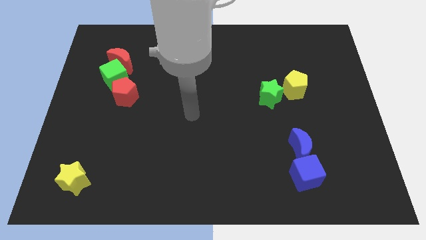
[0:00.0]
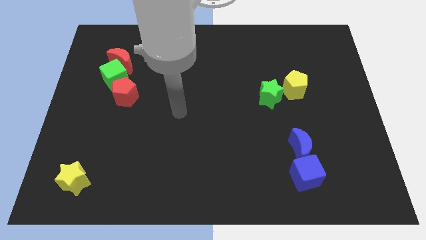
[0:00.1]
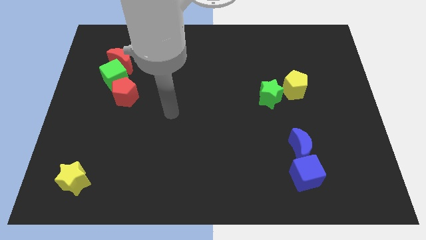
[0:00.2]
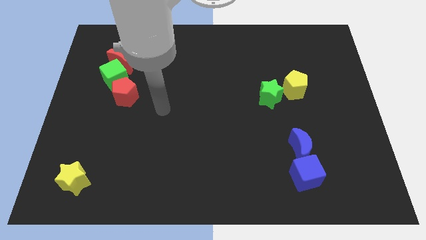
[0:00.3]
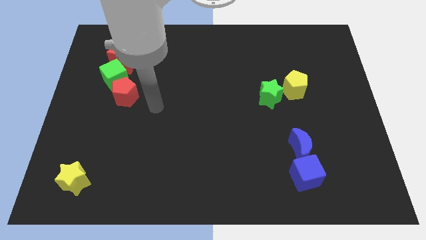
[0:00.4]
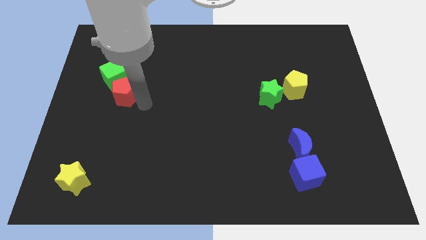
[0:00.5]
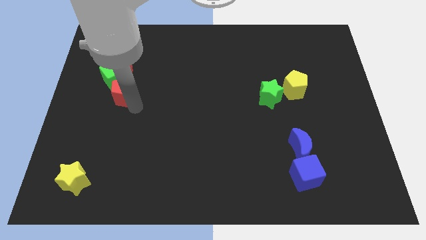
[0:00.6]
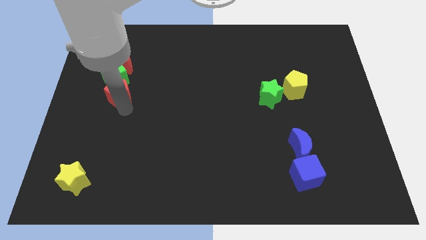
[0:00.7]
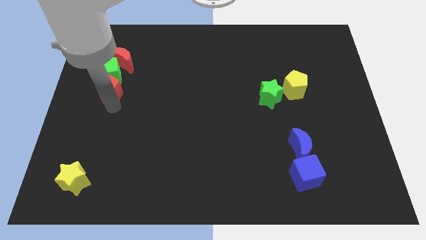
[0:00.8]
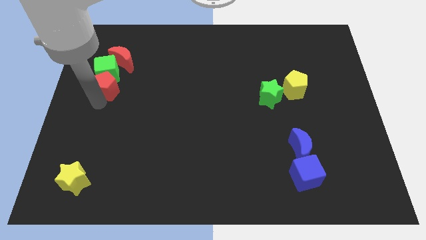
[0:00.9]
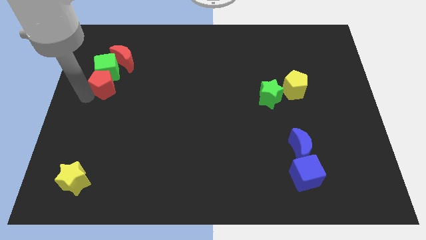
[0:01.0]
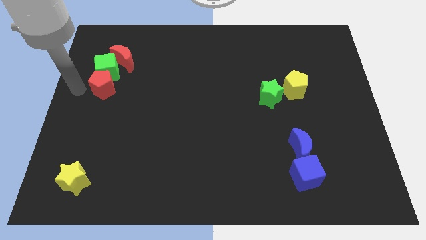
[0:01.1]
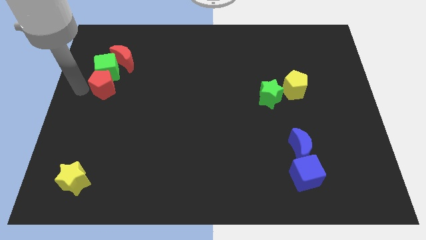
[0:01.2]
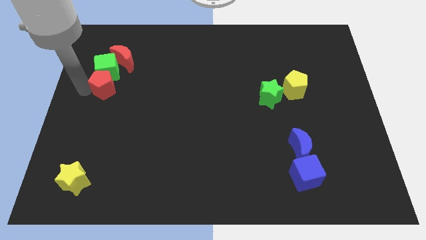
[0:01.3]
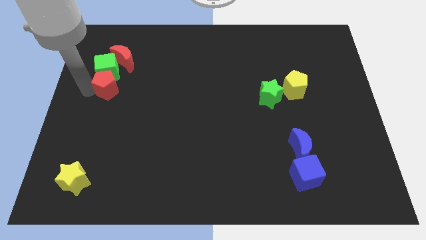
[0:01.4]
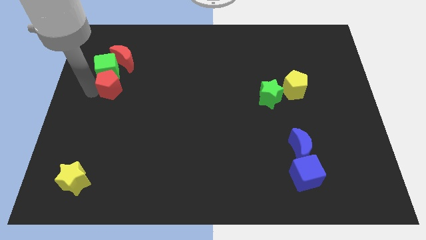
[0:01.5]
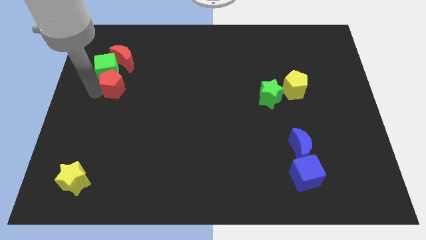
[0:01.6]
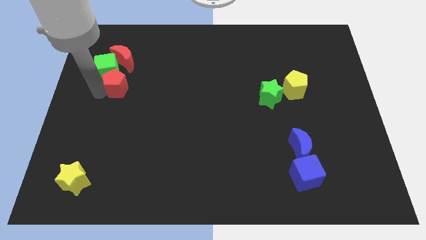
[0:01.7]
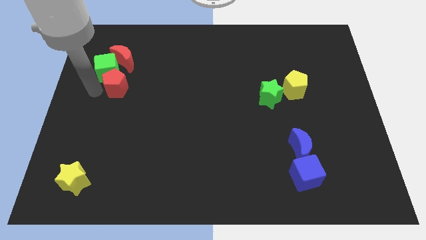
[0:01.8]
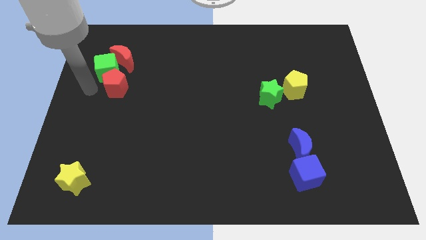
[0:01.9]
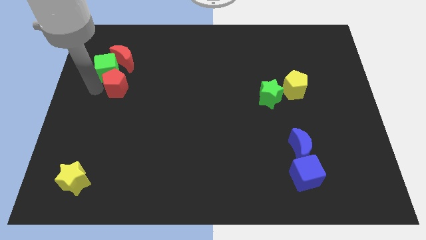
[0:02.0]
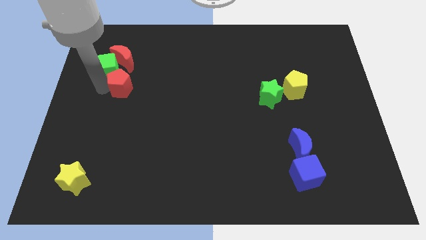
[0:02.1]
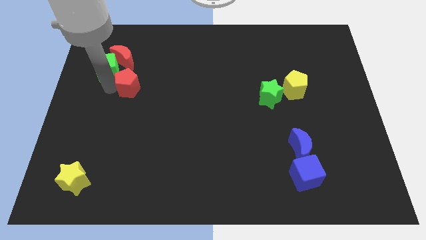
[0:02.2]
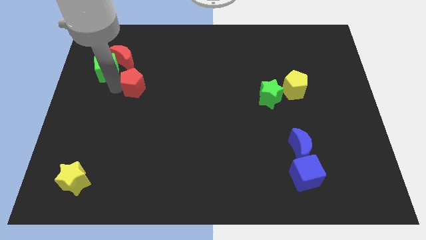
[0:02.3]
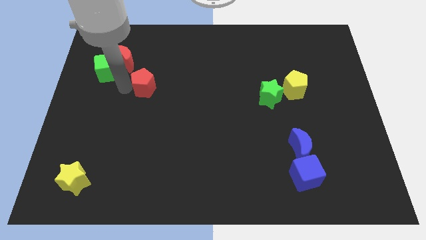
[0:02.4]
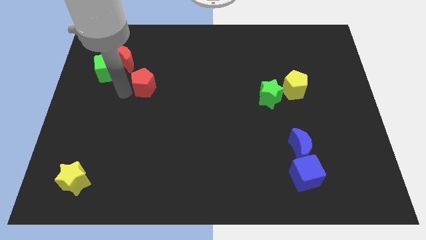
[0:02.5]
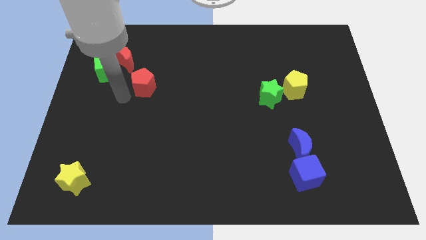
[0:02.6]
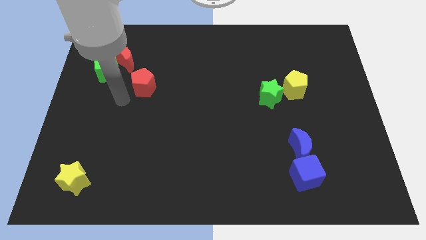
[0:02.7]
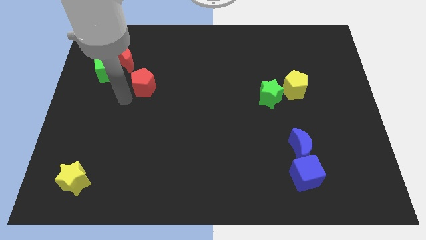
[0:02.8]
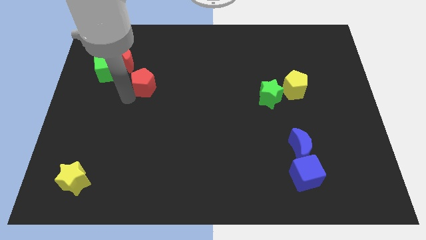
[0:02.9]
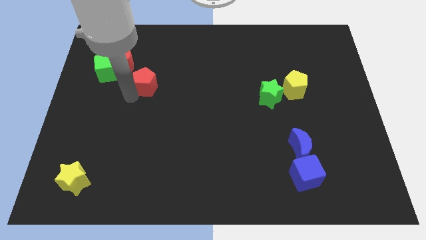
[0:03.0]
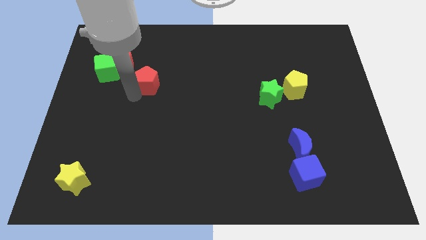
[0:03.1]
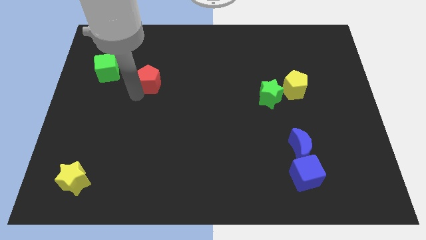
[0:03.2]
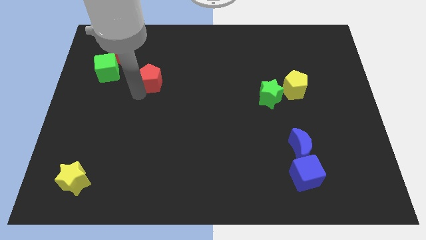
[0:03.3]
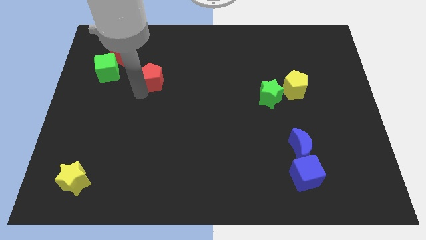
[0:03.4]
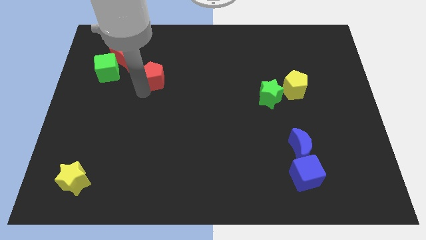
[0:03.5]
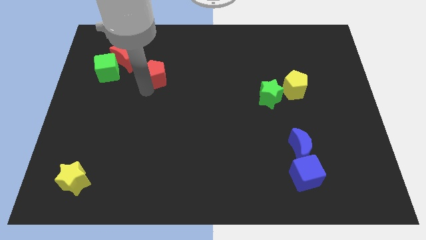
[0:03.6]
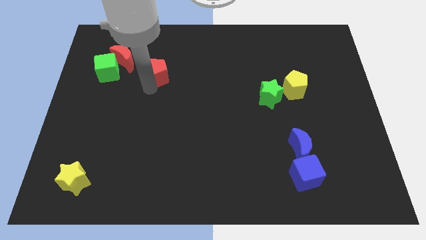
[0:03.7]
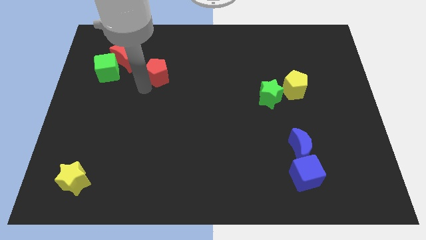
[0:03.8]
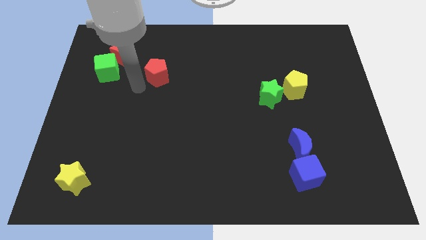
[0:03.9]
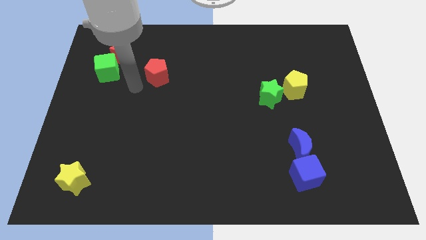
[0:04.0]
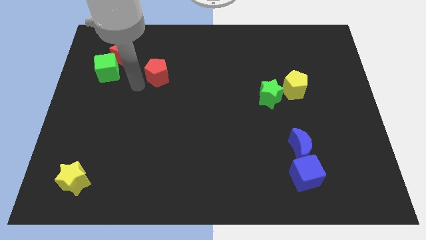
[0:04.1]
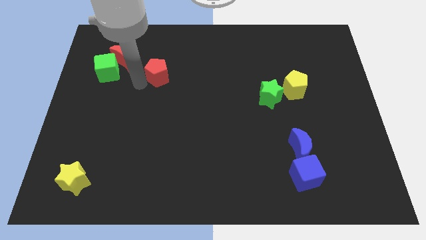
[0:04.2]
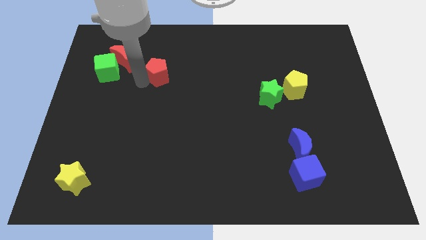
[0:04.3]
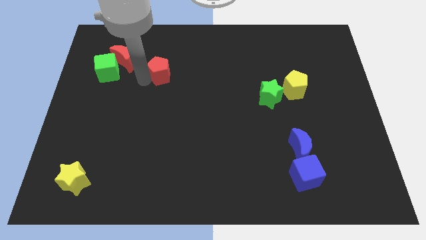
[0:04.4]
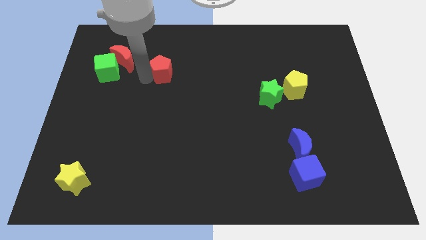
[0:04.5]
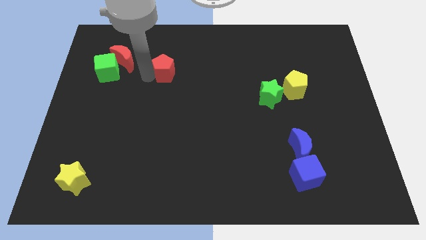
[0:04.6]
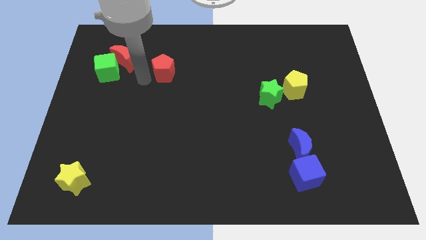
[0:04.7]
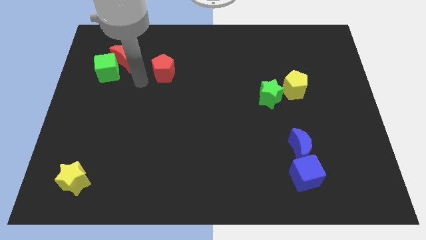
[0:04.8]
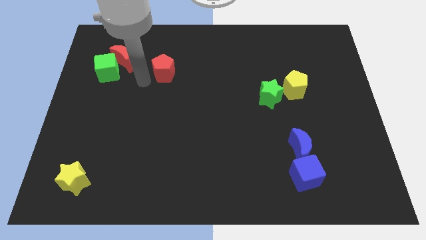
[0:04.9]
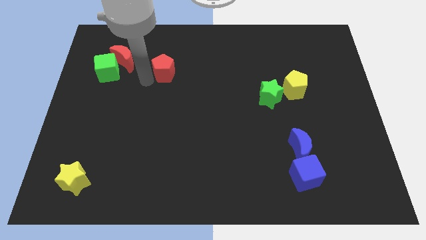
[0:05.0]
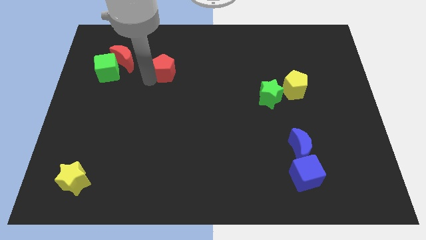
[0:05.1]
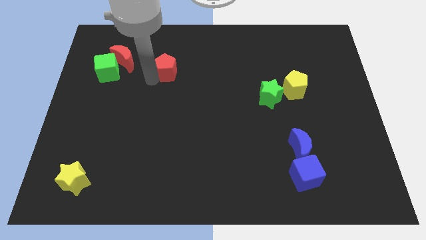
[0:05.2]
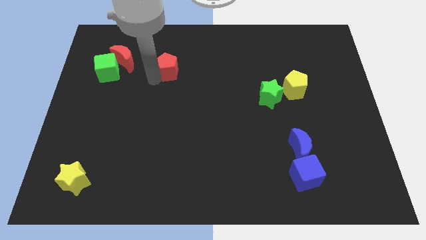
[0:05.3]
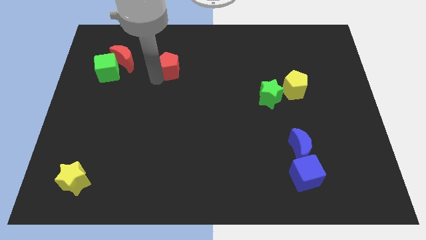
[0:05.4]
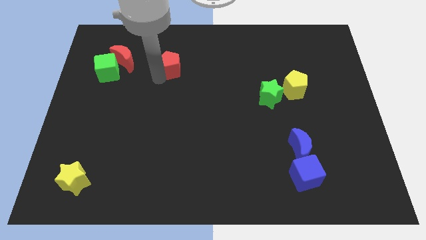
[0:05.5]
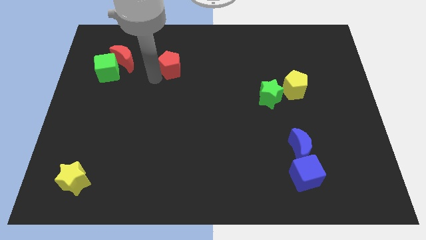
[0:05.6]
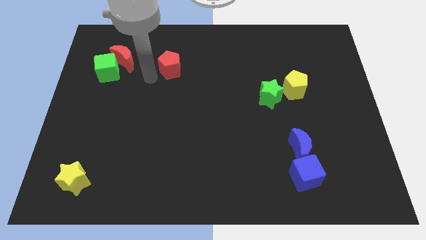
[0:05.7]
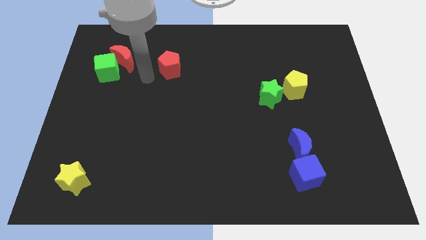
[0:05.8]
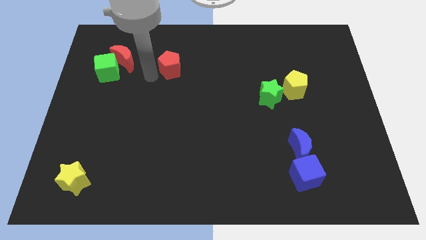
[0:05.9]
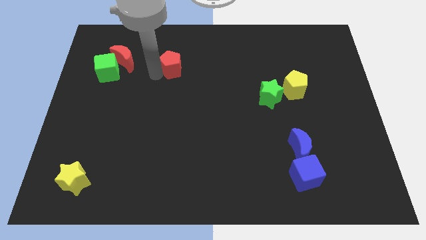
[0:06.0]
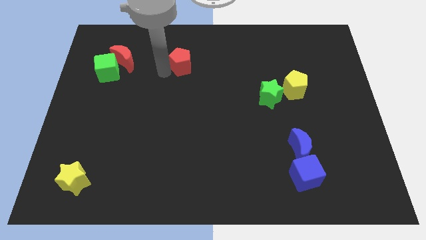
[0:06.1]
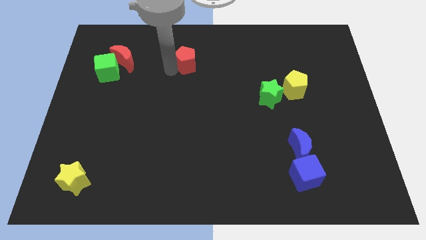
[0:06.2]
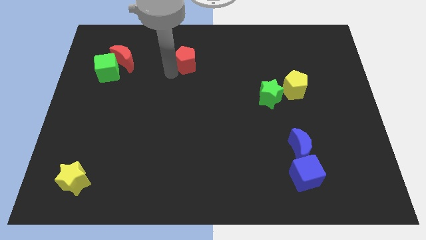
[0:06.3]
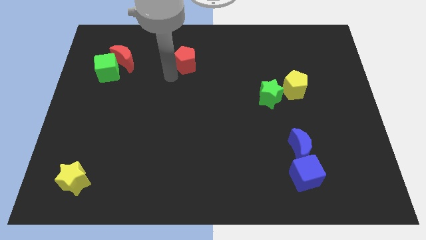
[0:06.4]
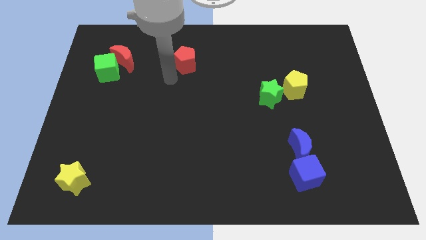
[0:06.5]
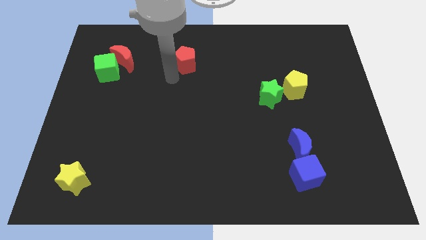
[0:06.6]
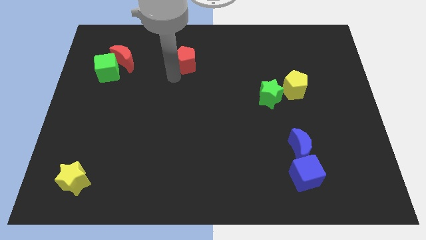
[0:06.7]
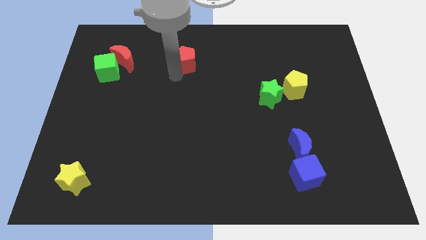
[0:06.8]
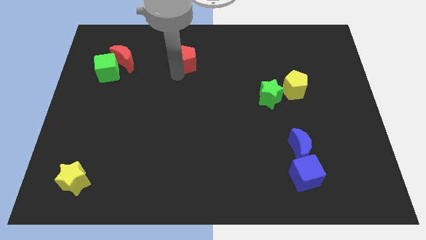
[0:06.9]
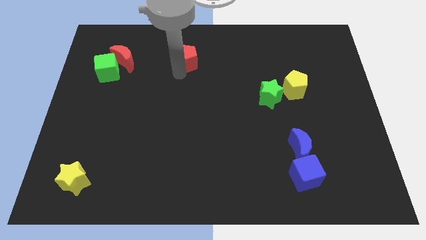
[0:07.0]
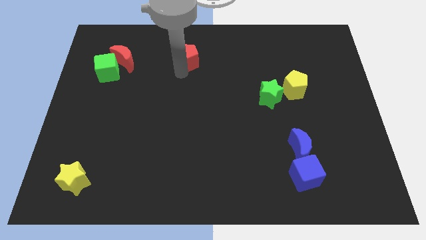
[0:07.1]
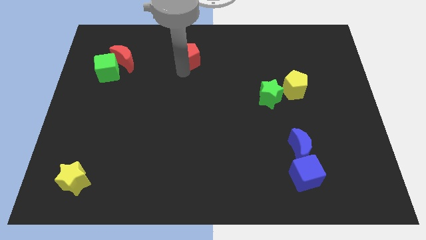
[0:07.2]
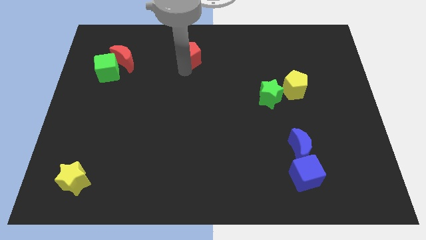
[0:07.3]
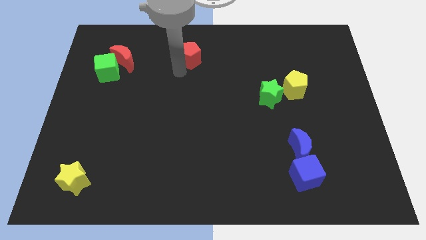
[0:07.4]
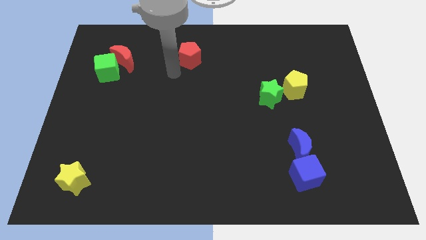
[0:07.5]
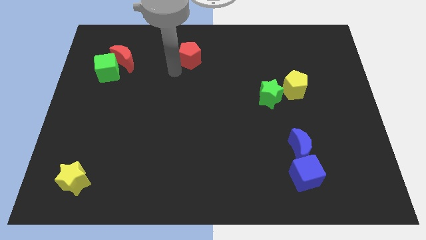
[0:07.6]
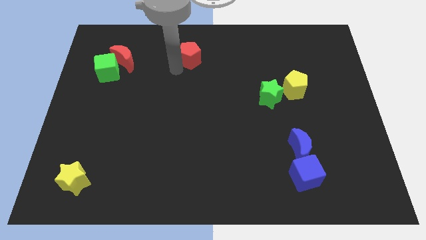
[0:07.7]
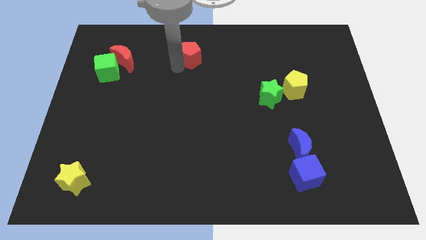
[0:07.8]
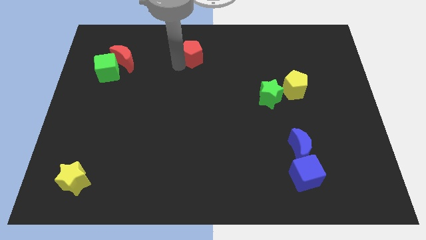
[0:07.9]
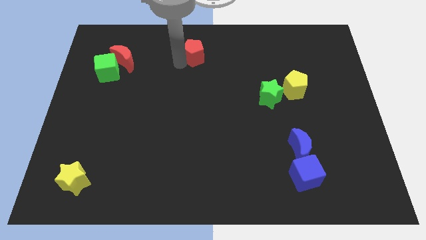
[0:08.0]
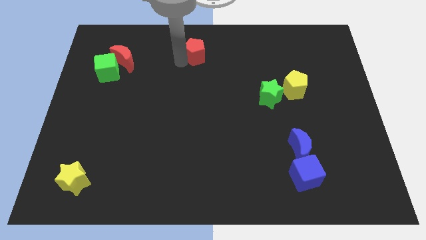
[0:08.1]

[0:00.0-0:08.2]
push the red pentagon to the top
